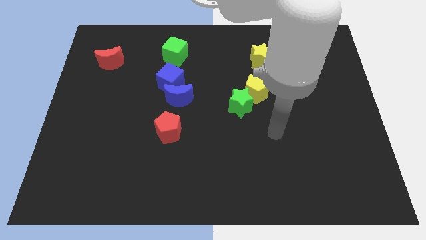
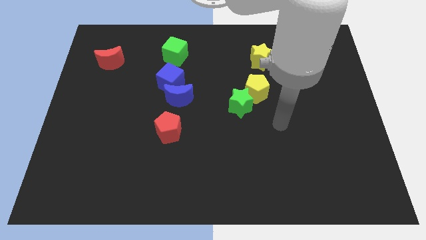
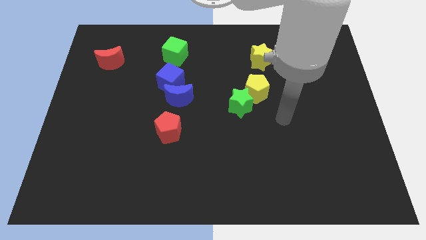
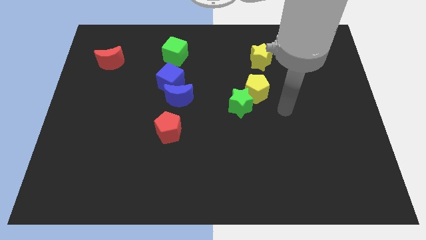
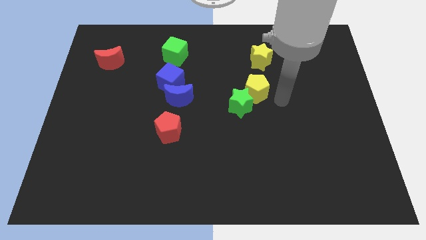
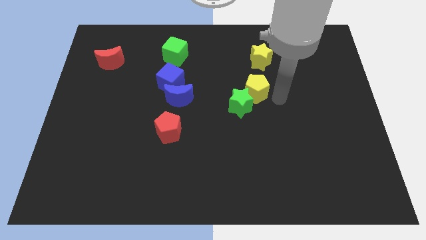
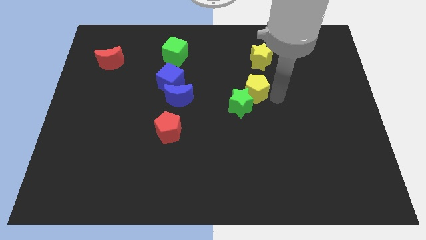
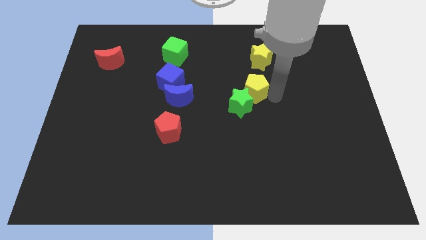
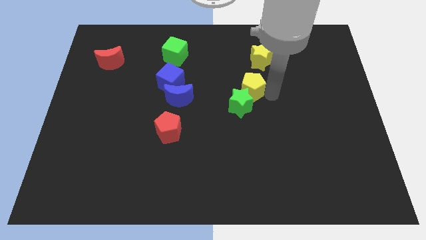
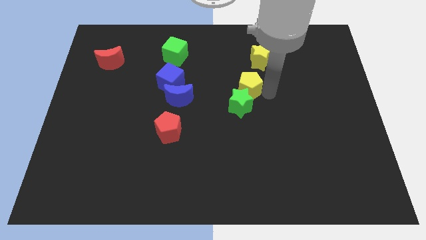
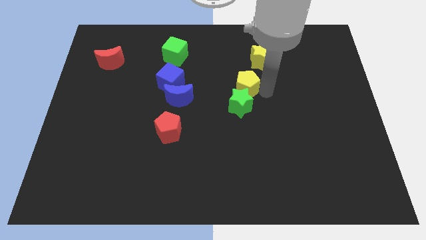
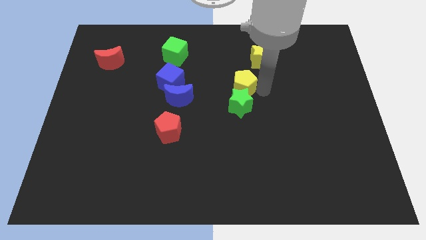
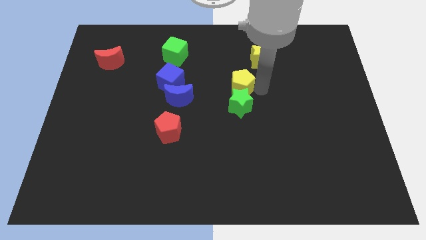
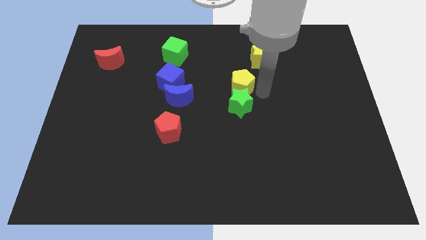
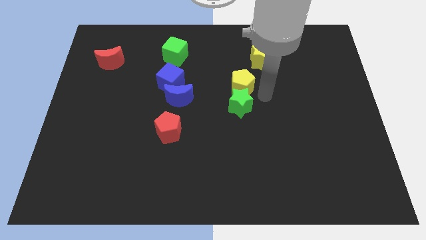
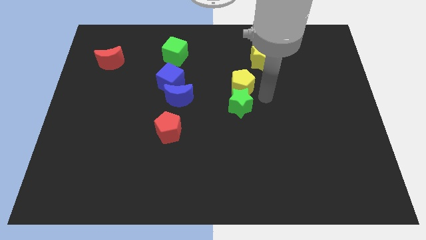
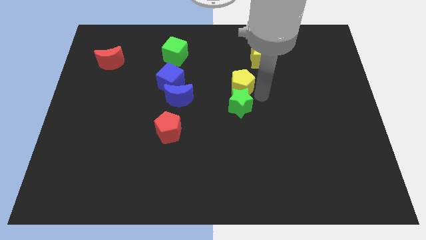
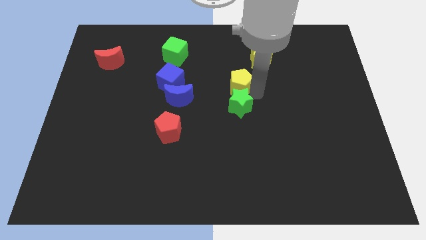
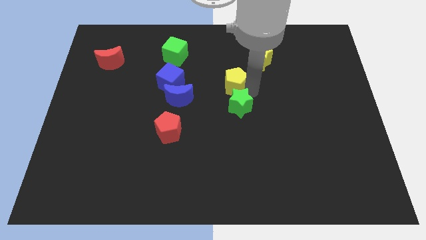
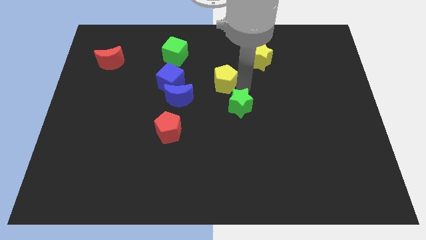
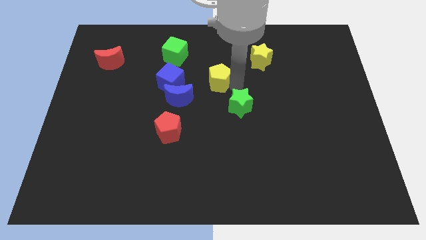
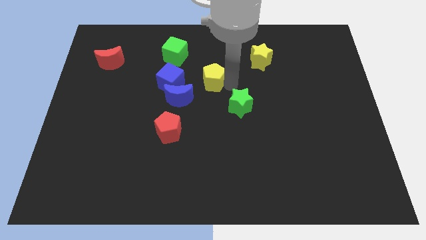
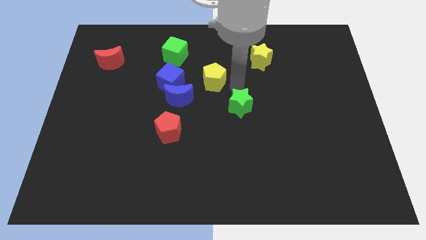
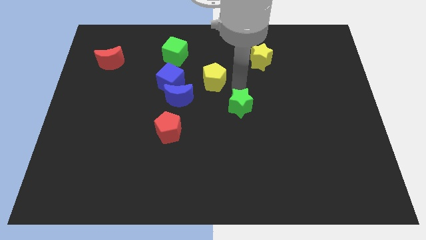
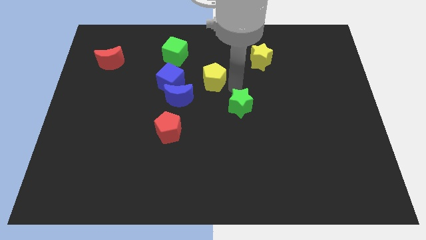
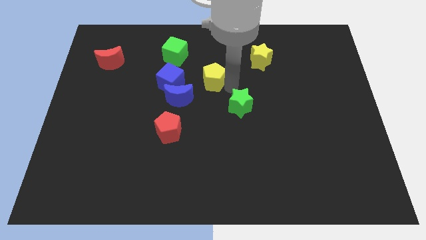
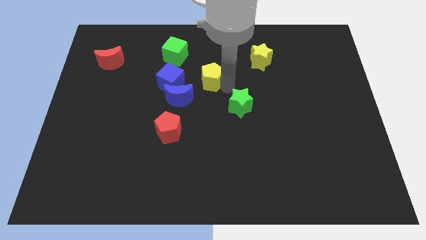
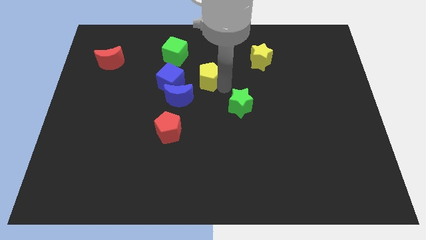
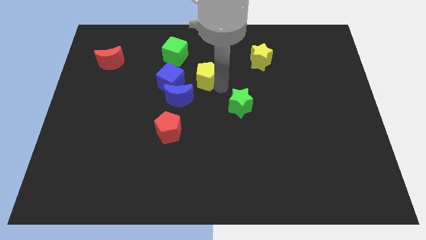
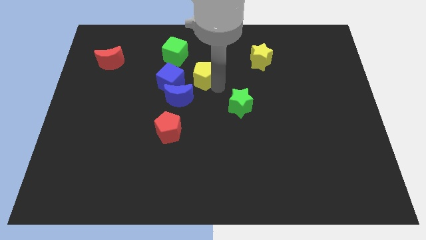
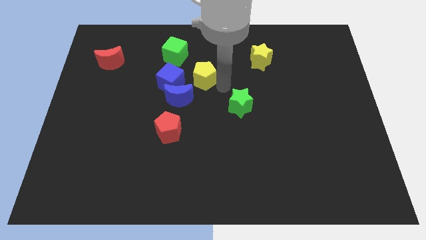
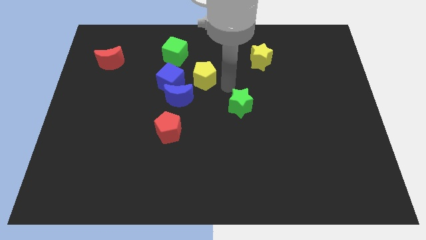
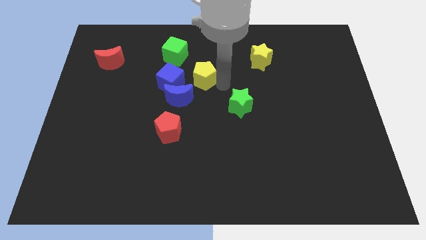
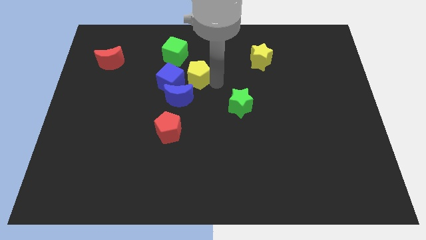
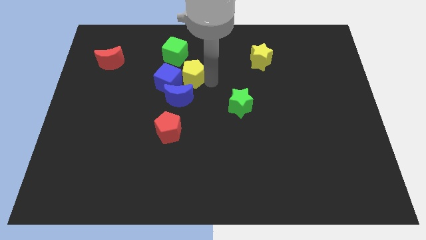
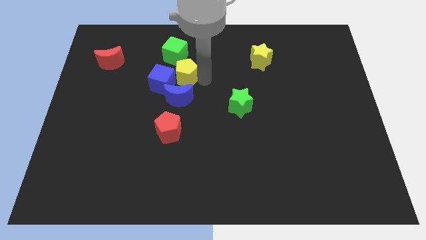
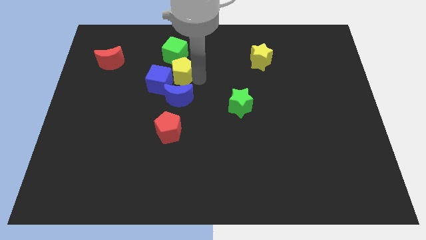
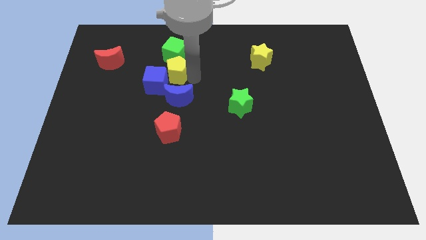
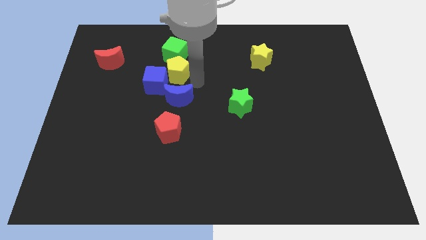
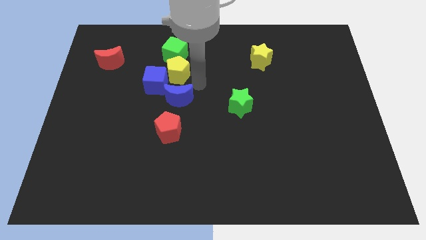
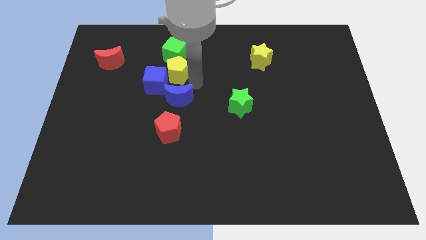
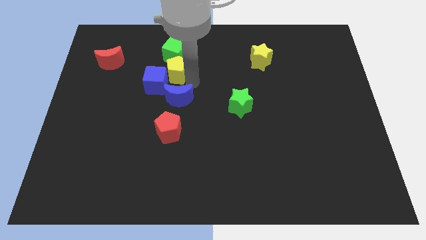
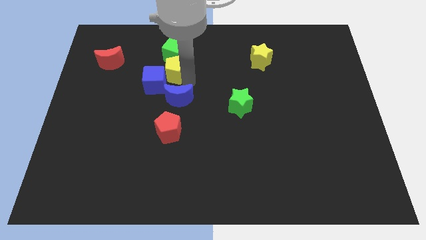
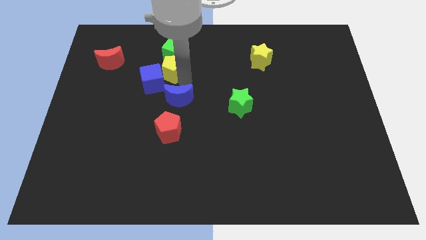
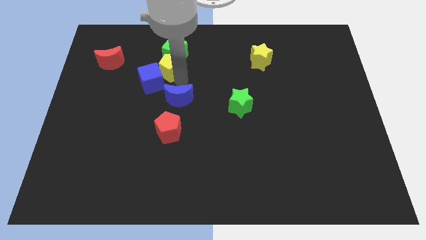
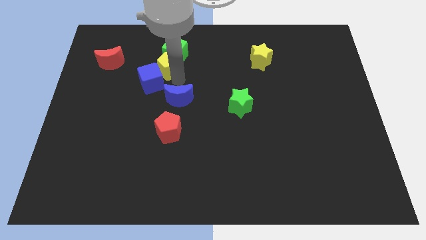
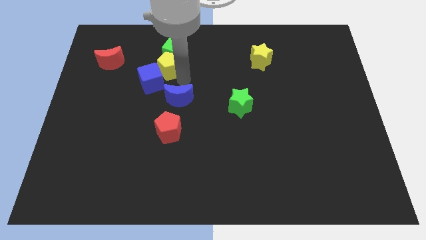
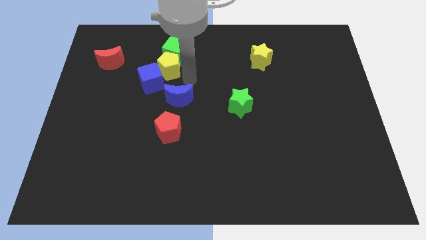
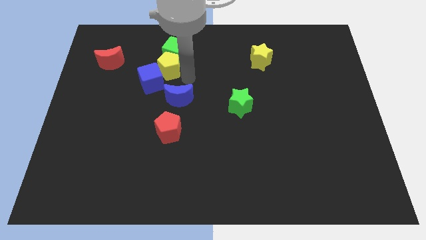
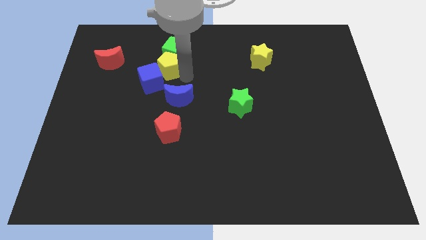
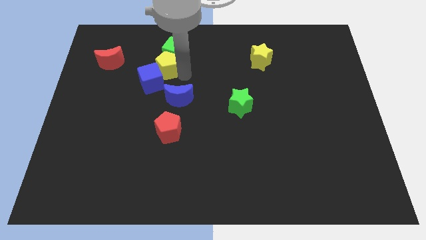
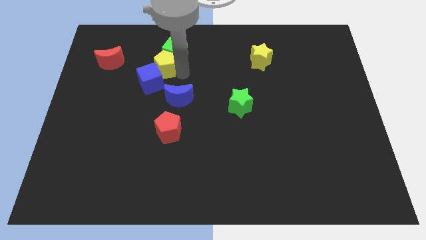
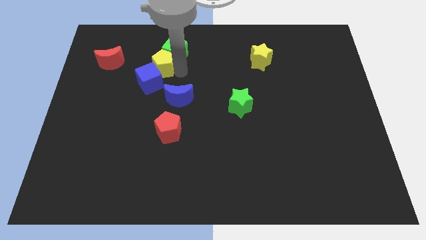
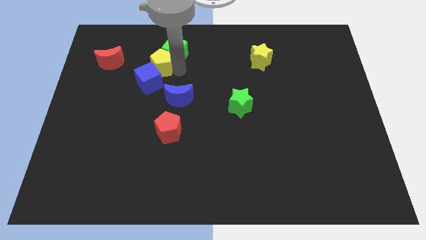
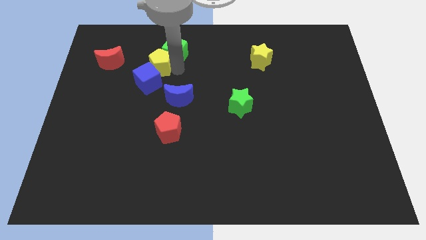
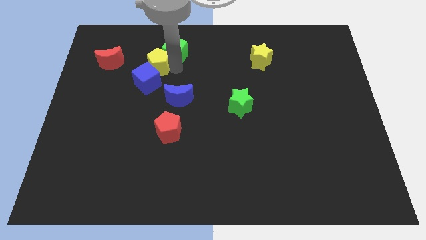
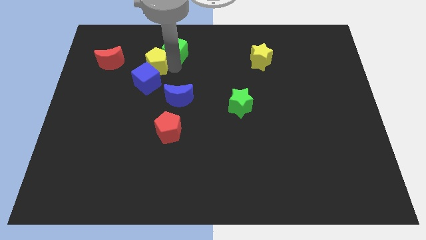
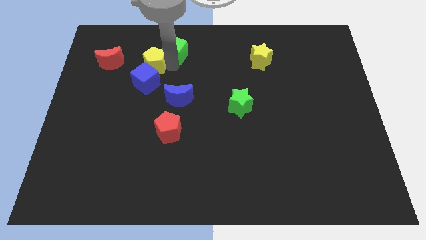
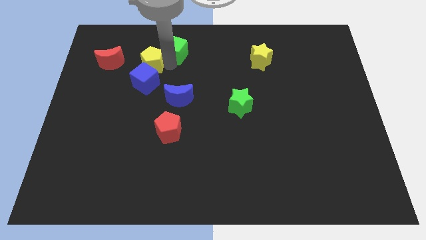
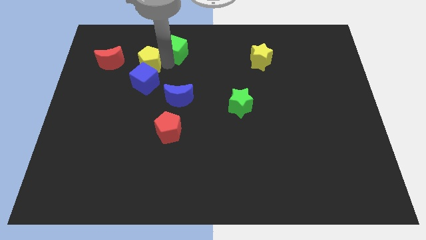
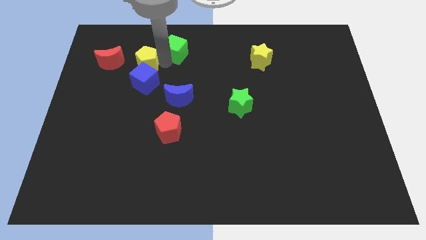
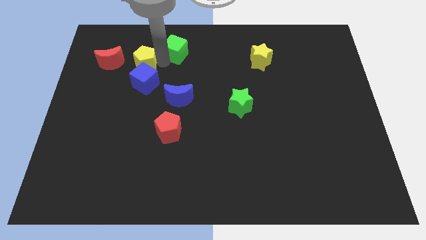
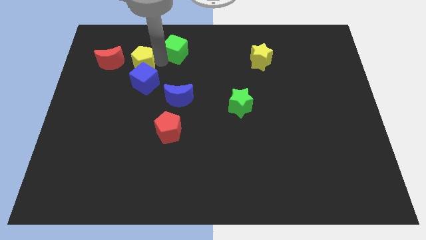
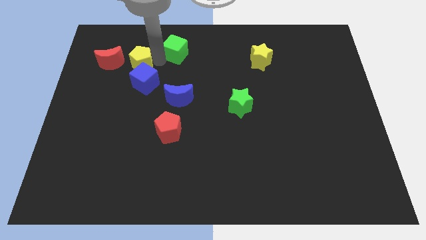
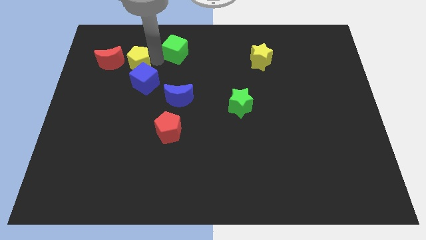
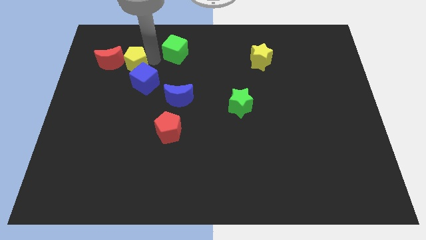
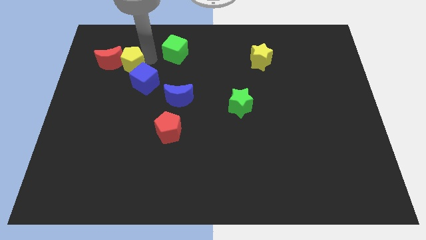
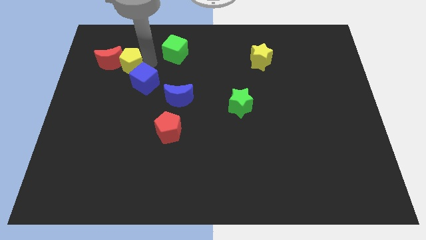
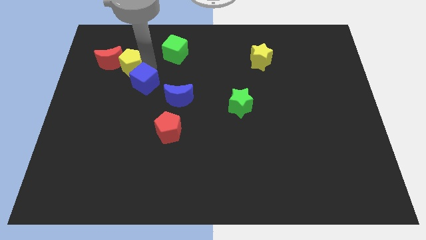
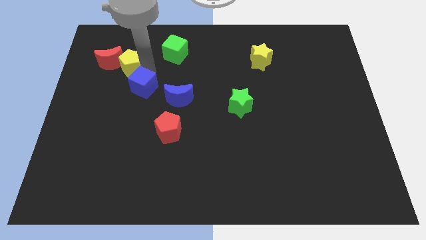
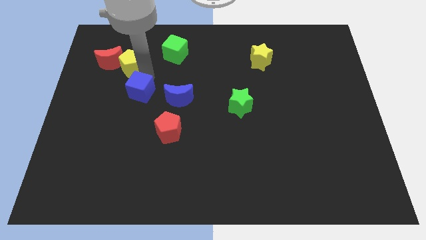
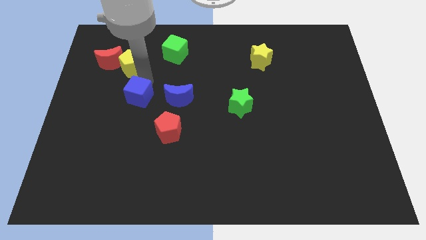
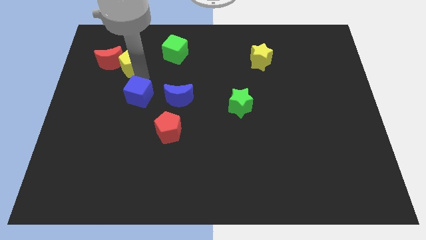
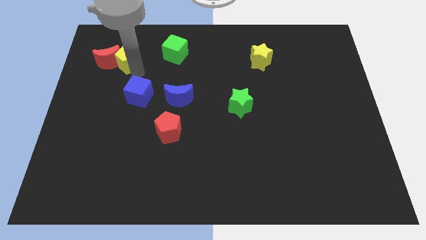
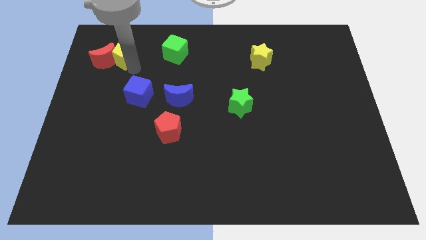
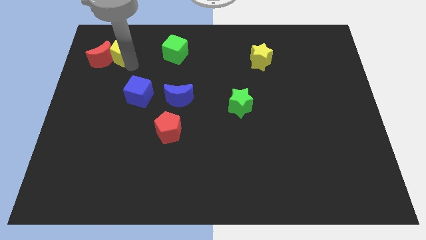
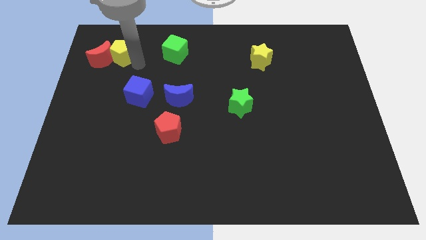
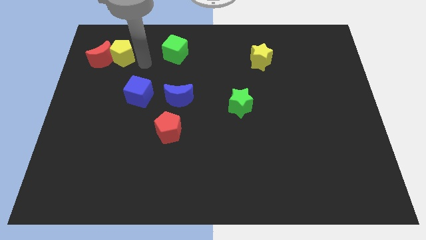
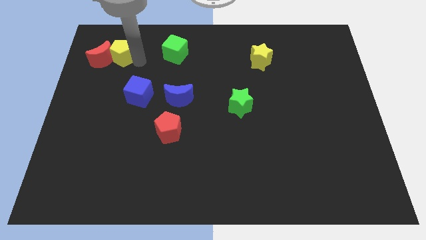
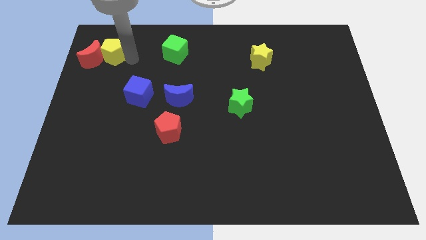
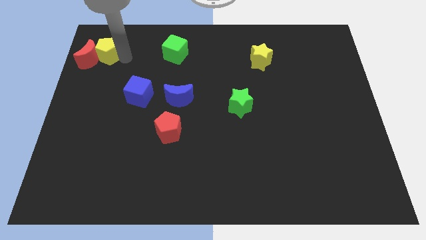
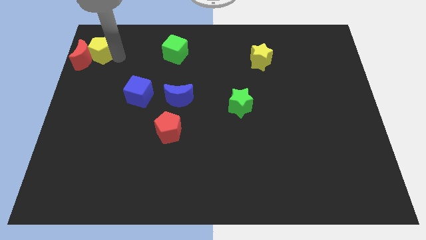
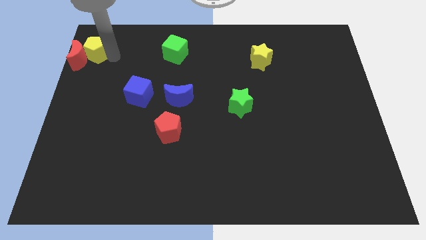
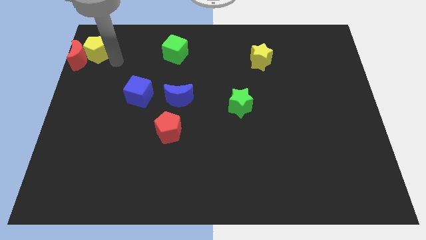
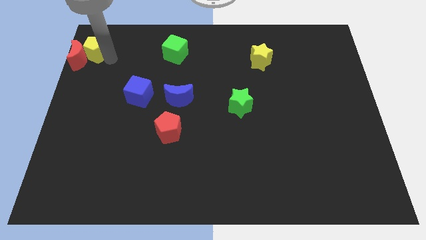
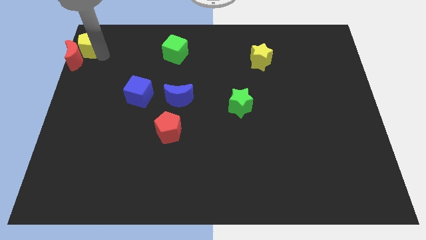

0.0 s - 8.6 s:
put the yellow pentagon to the top left corner
